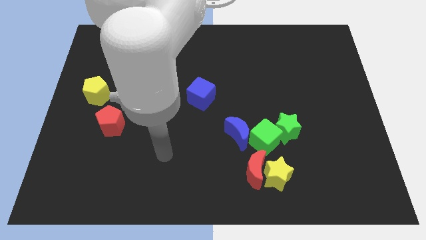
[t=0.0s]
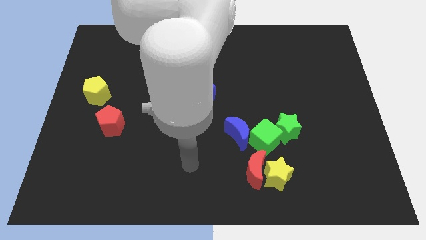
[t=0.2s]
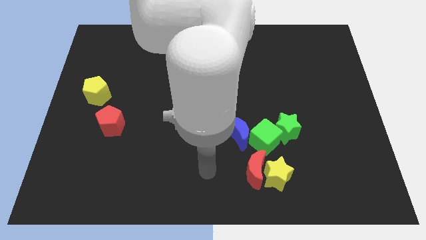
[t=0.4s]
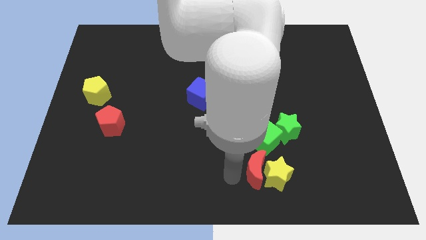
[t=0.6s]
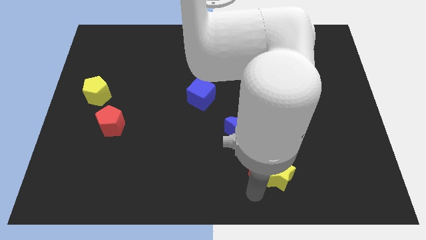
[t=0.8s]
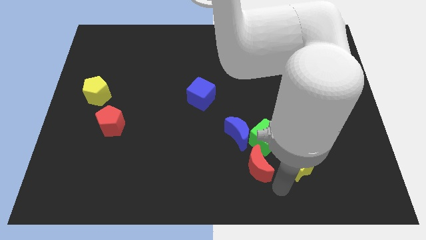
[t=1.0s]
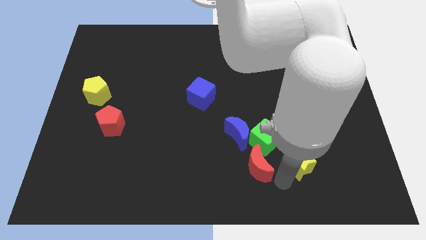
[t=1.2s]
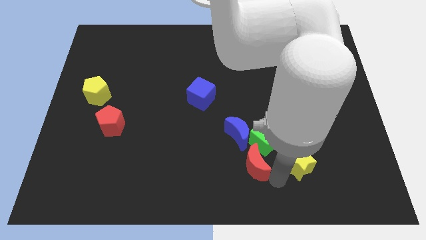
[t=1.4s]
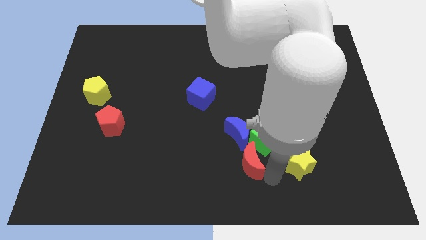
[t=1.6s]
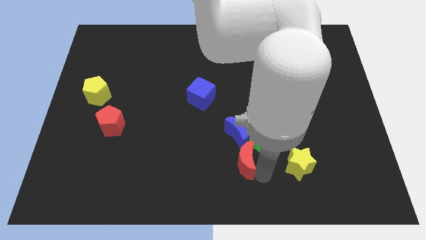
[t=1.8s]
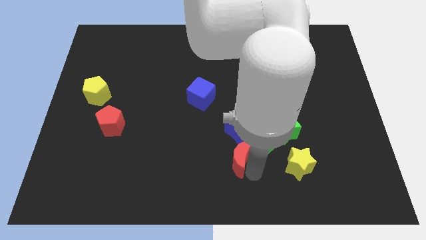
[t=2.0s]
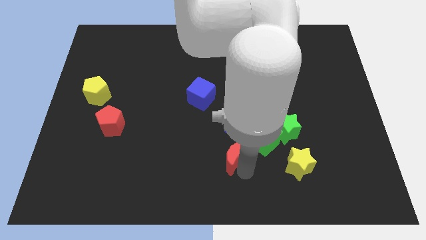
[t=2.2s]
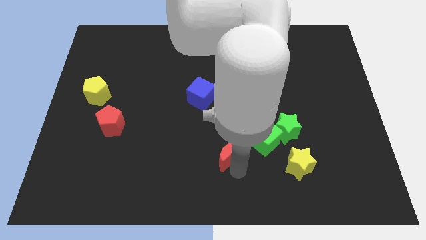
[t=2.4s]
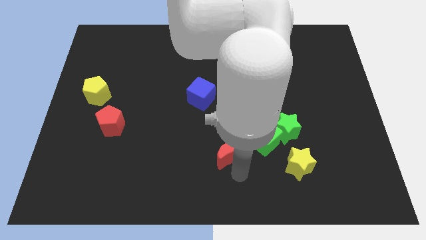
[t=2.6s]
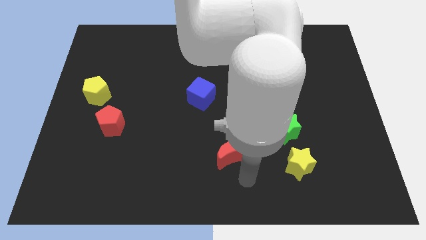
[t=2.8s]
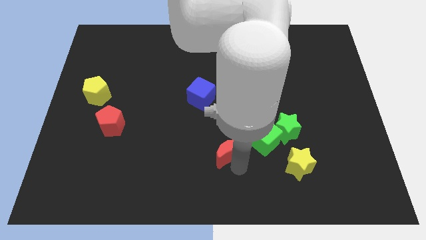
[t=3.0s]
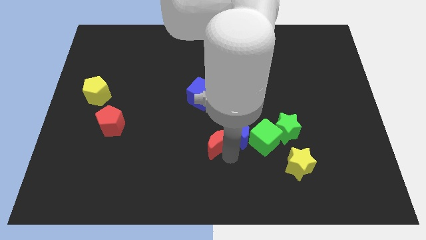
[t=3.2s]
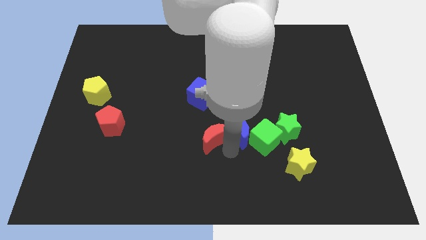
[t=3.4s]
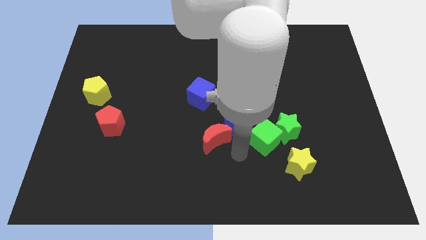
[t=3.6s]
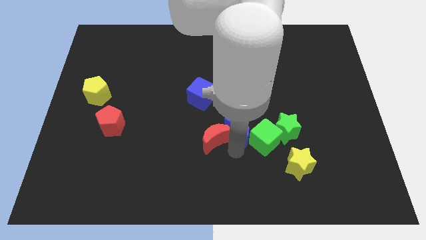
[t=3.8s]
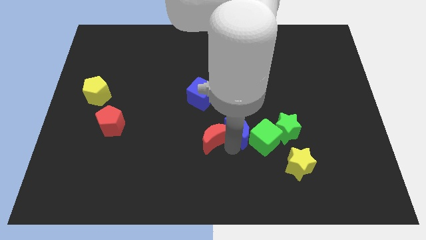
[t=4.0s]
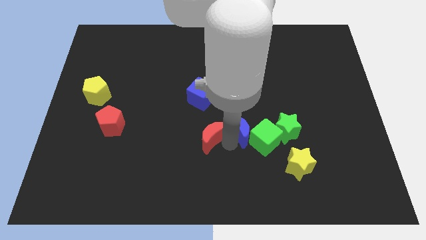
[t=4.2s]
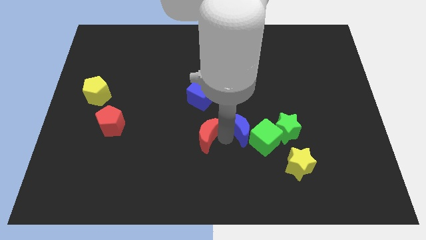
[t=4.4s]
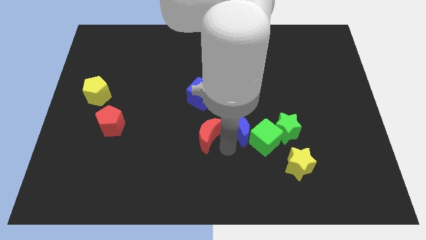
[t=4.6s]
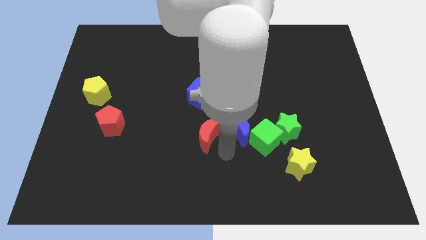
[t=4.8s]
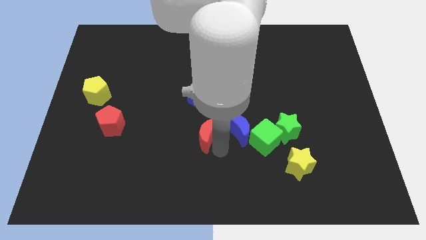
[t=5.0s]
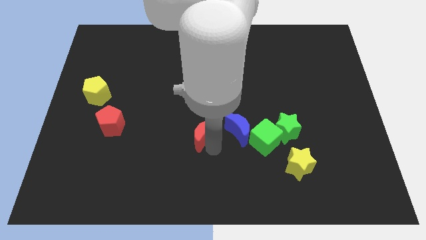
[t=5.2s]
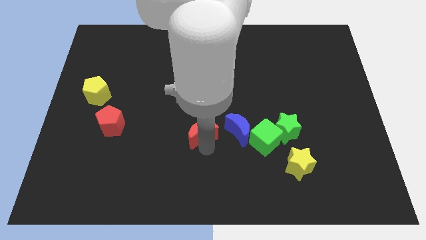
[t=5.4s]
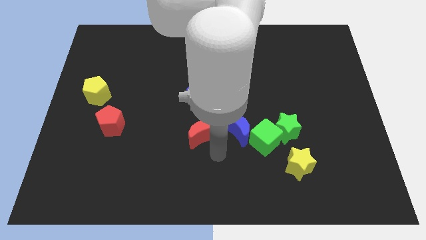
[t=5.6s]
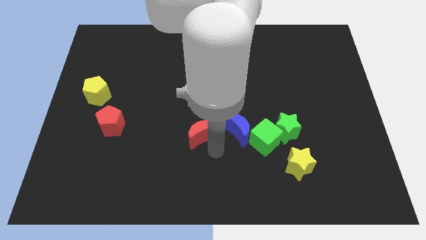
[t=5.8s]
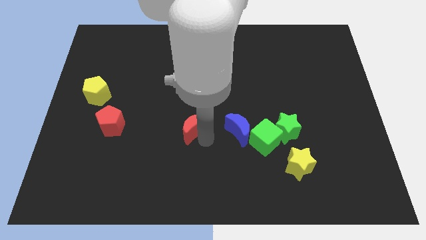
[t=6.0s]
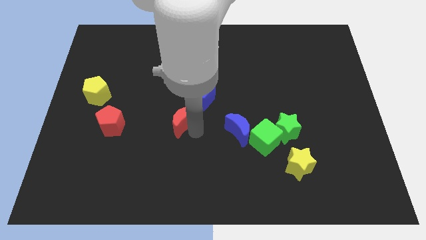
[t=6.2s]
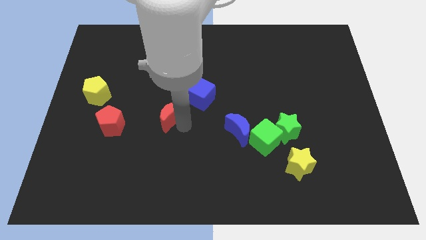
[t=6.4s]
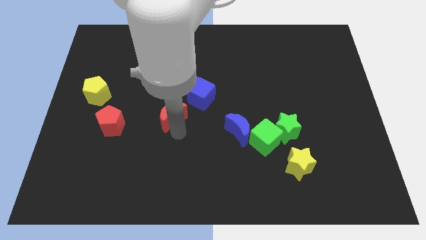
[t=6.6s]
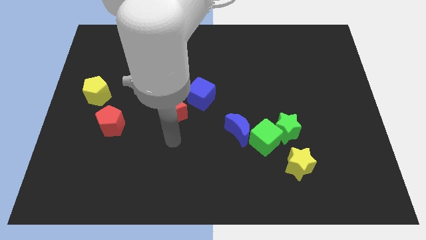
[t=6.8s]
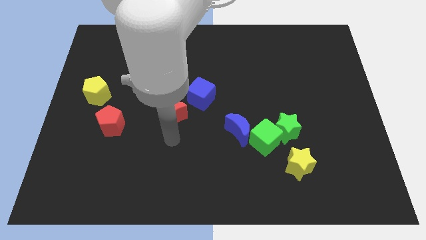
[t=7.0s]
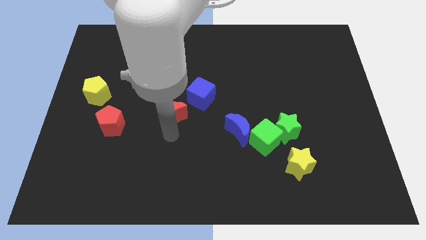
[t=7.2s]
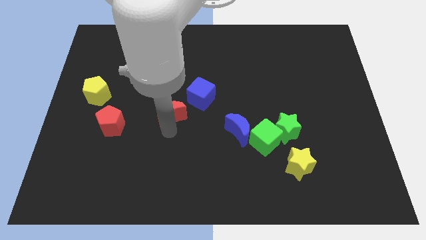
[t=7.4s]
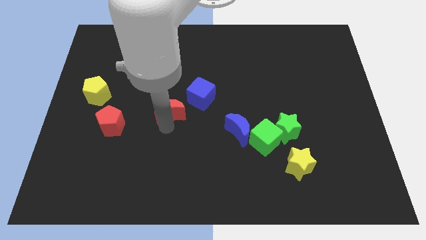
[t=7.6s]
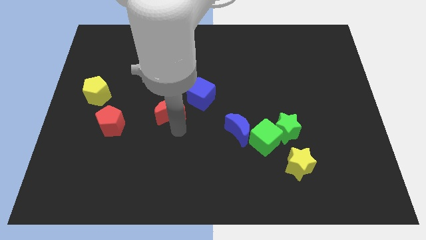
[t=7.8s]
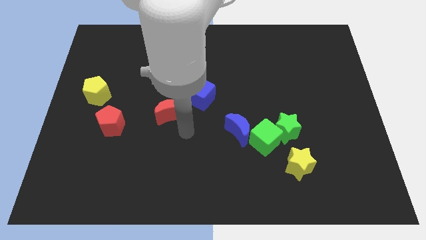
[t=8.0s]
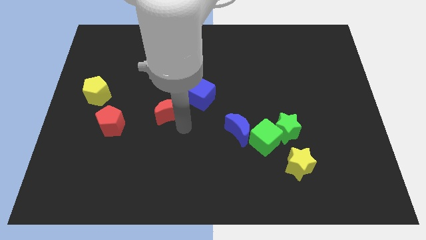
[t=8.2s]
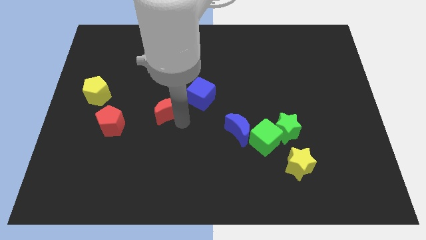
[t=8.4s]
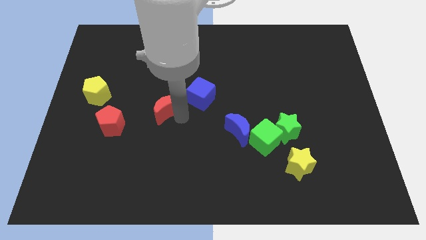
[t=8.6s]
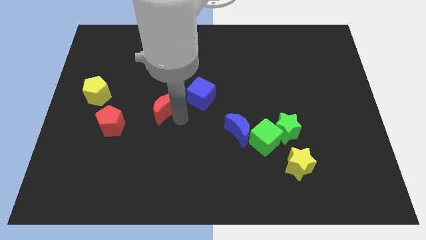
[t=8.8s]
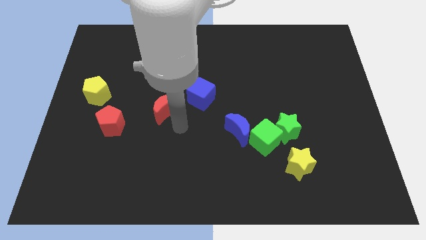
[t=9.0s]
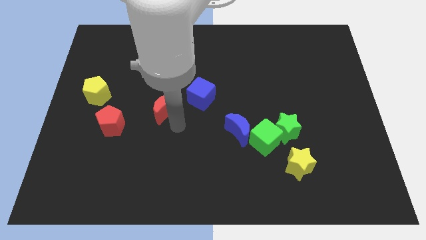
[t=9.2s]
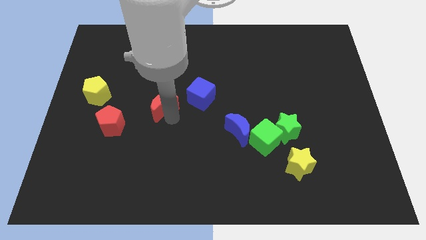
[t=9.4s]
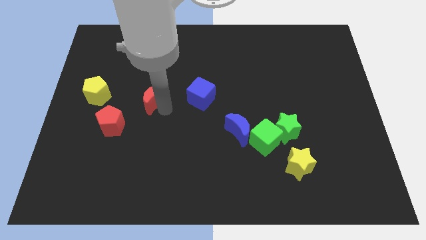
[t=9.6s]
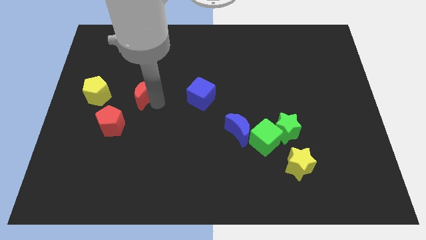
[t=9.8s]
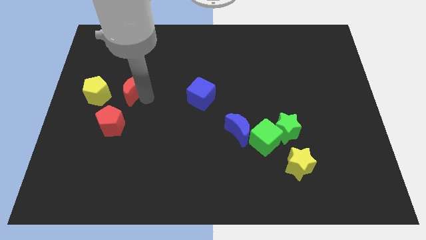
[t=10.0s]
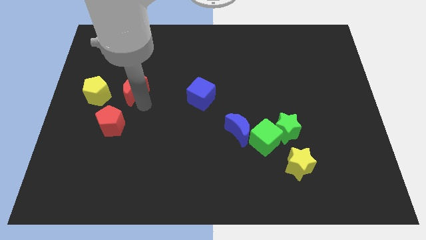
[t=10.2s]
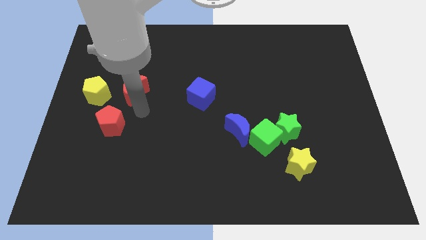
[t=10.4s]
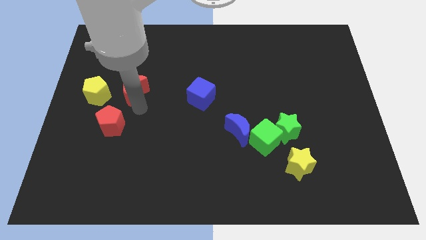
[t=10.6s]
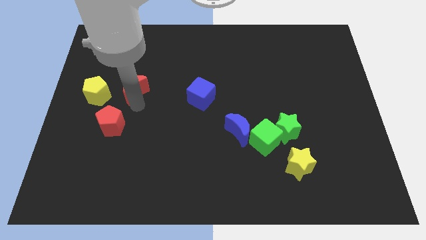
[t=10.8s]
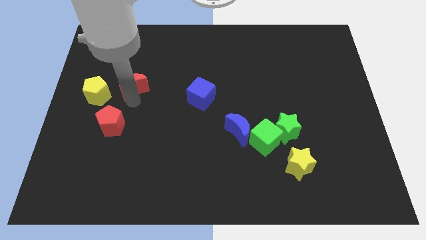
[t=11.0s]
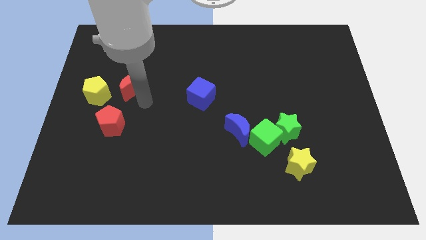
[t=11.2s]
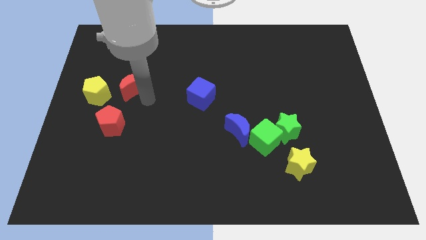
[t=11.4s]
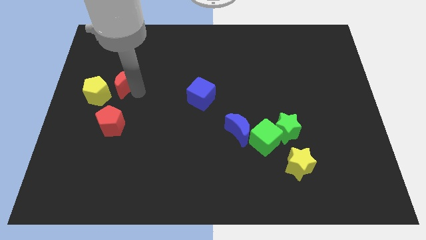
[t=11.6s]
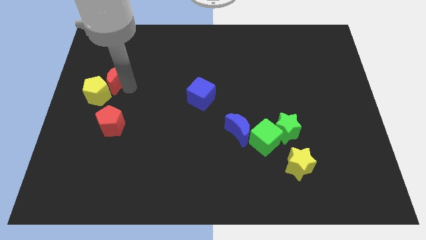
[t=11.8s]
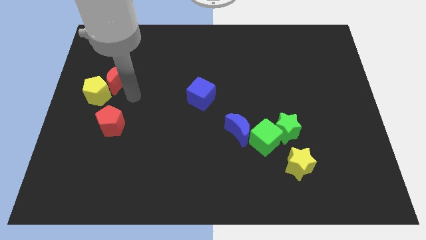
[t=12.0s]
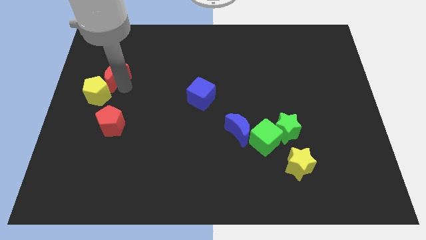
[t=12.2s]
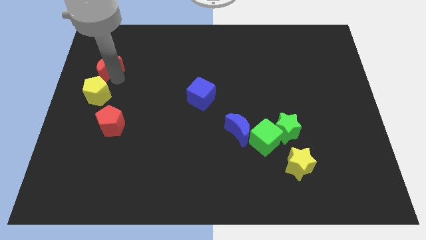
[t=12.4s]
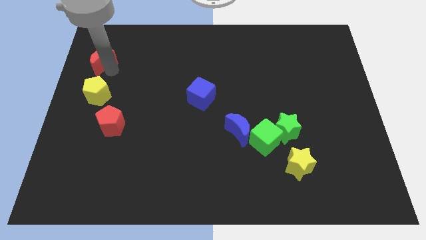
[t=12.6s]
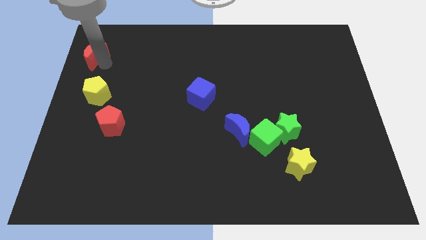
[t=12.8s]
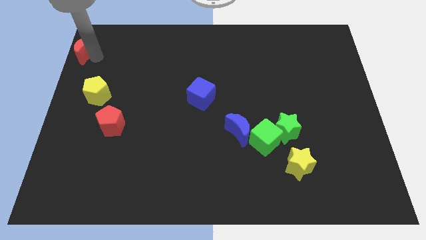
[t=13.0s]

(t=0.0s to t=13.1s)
put the red moon to the upper left corner
